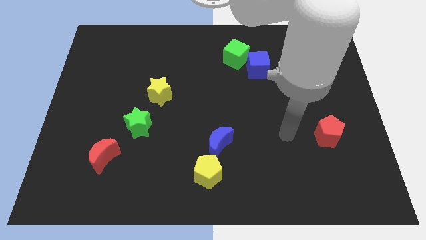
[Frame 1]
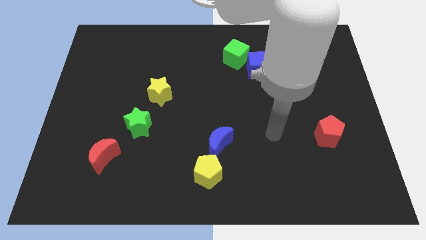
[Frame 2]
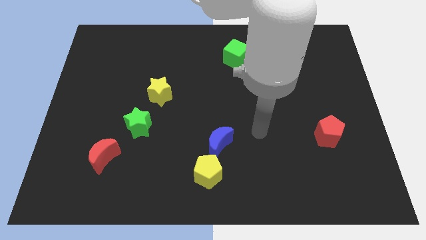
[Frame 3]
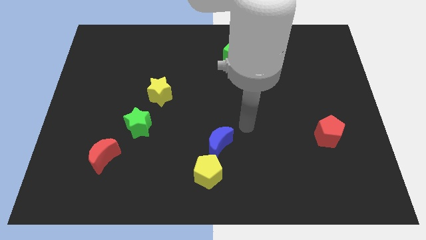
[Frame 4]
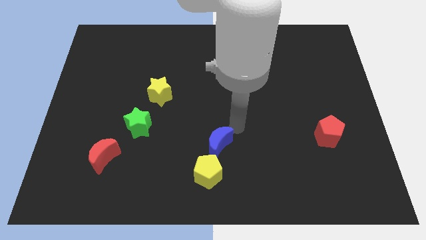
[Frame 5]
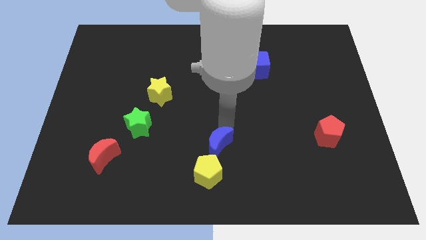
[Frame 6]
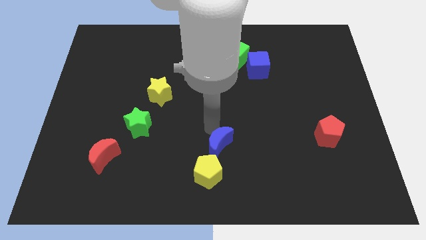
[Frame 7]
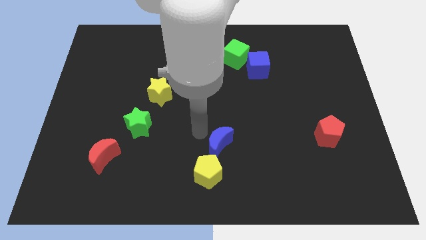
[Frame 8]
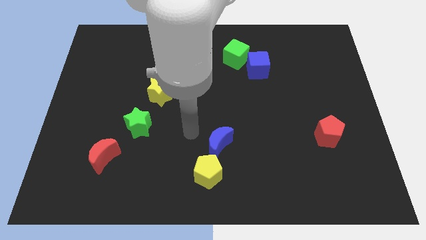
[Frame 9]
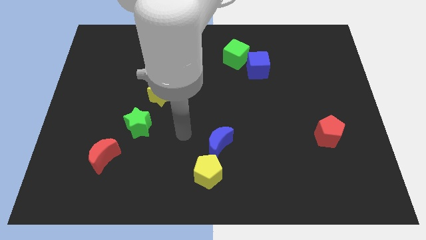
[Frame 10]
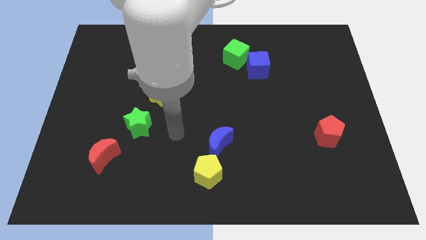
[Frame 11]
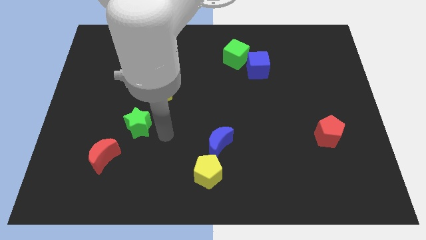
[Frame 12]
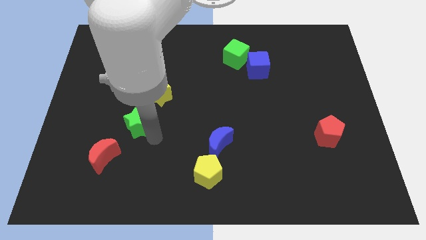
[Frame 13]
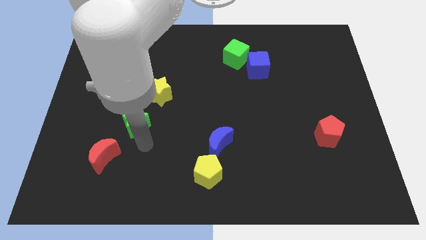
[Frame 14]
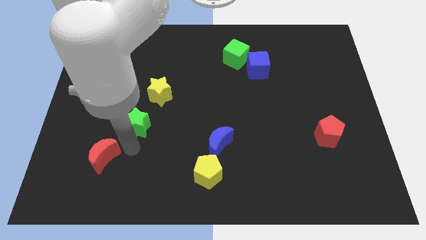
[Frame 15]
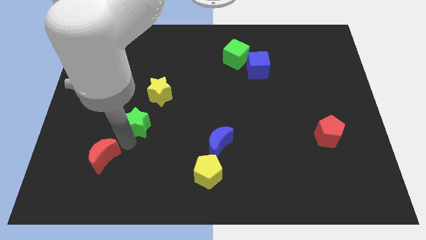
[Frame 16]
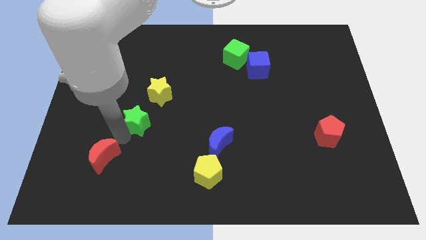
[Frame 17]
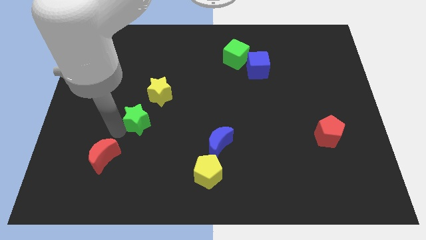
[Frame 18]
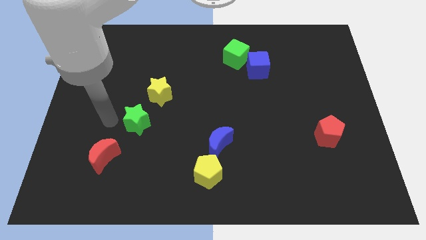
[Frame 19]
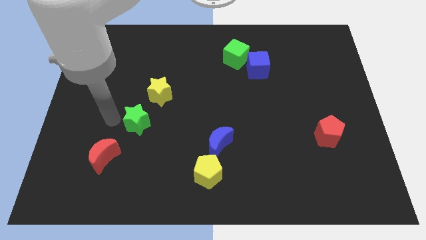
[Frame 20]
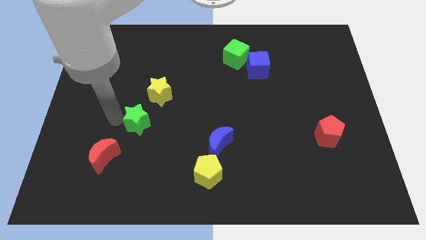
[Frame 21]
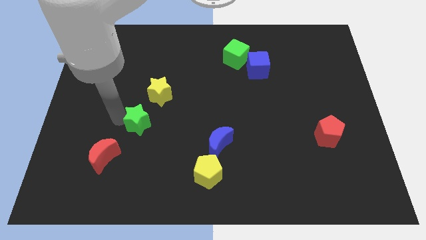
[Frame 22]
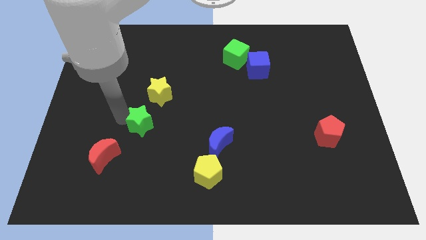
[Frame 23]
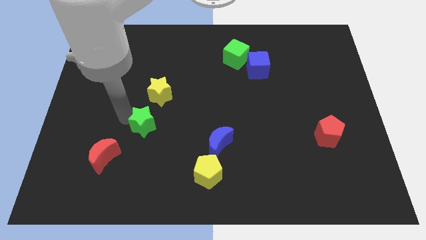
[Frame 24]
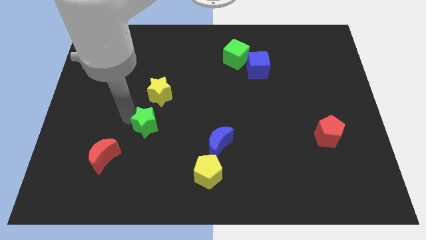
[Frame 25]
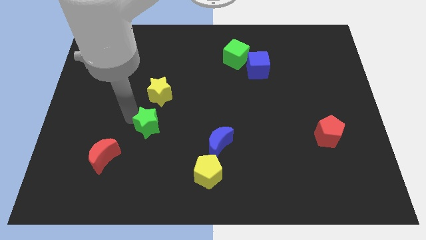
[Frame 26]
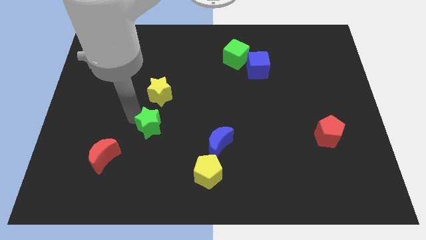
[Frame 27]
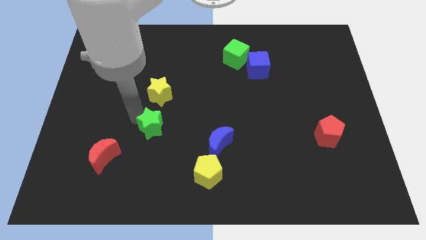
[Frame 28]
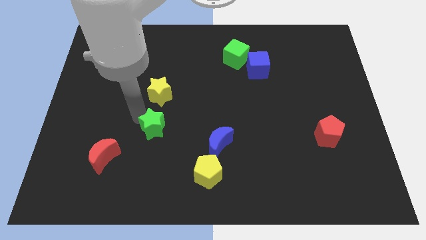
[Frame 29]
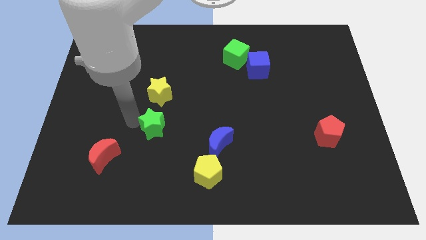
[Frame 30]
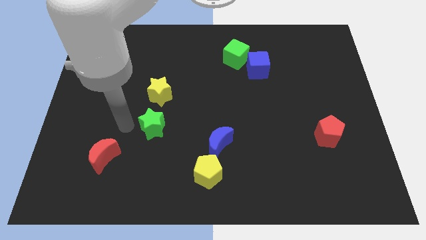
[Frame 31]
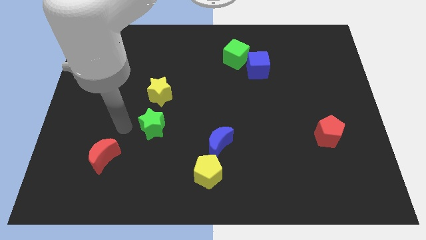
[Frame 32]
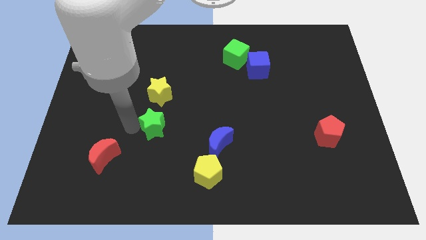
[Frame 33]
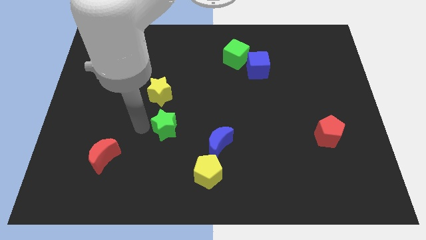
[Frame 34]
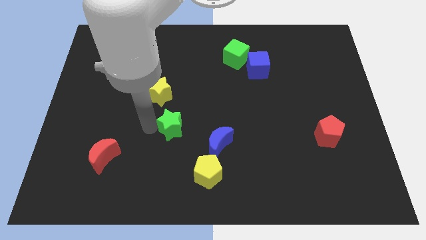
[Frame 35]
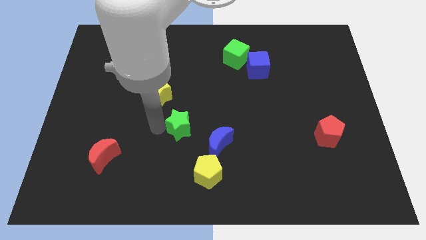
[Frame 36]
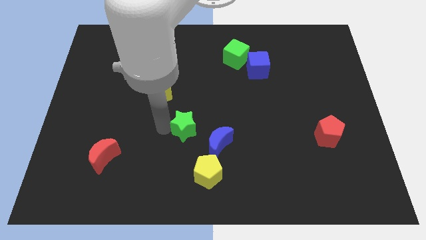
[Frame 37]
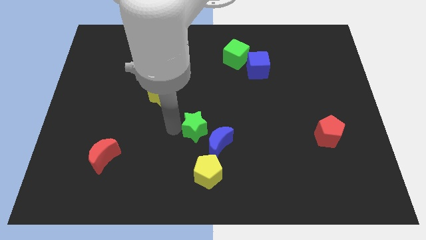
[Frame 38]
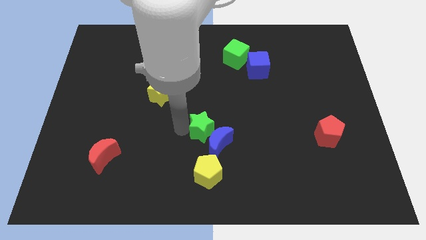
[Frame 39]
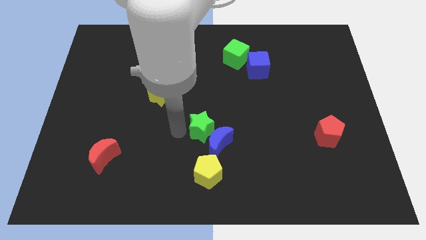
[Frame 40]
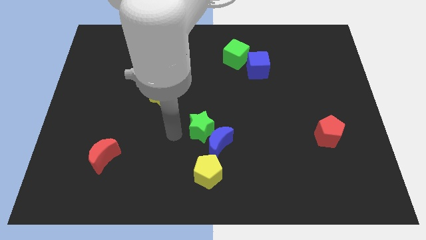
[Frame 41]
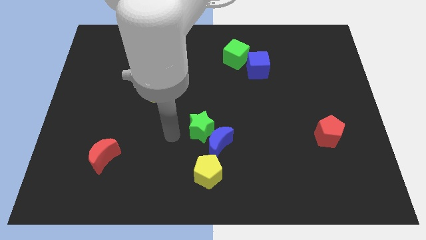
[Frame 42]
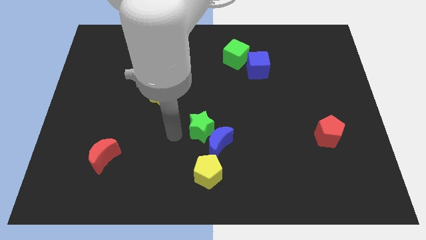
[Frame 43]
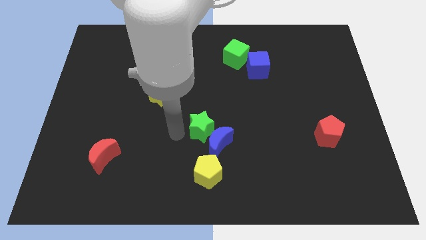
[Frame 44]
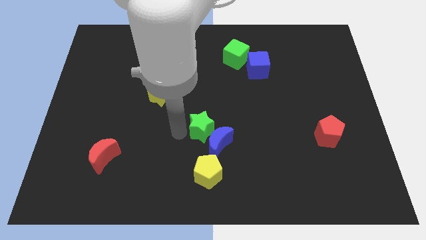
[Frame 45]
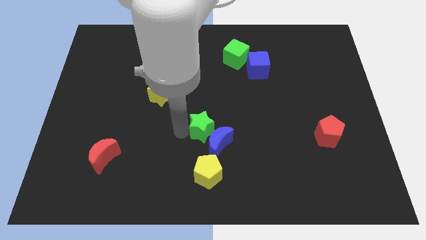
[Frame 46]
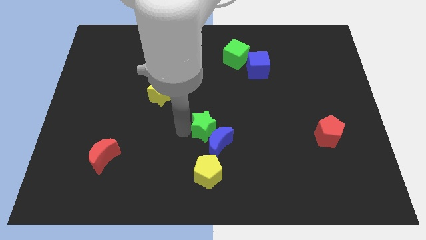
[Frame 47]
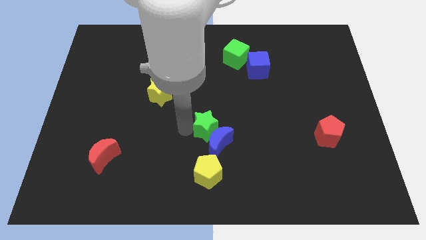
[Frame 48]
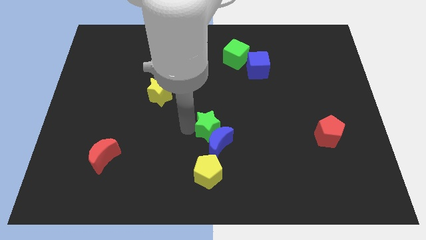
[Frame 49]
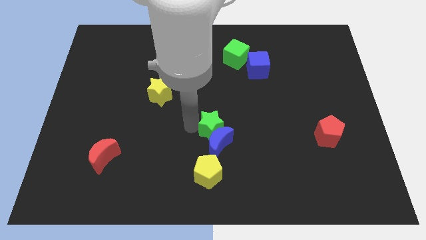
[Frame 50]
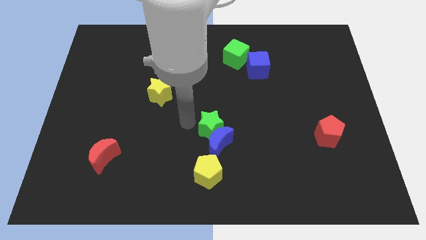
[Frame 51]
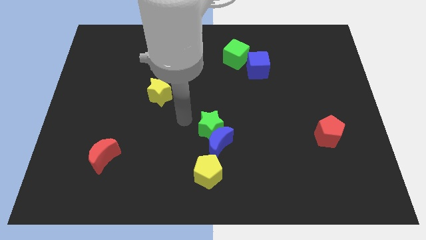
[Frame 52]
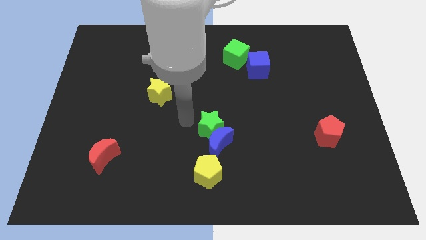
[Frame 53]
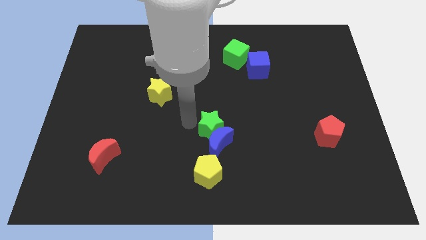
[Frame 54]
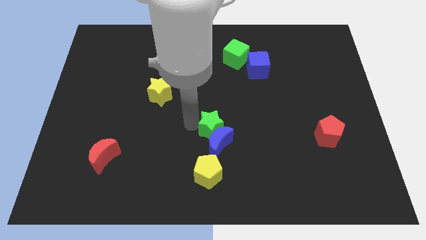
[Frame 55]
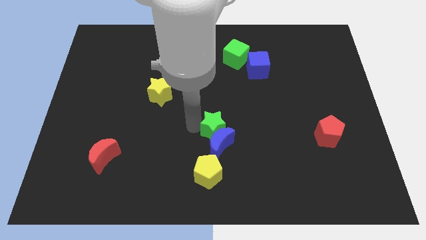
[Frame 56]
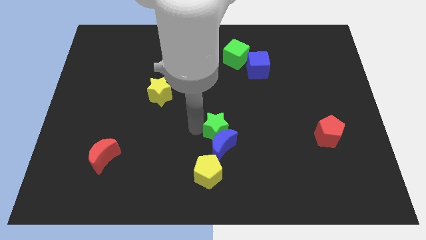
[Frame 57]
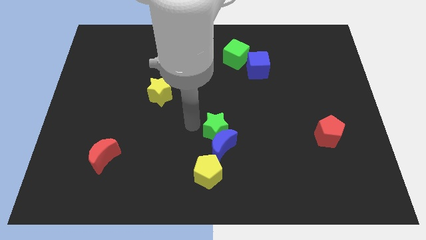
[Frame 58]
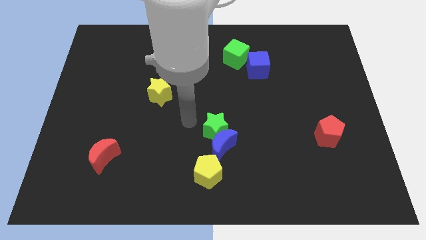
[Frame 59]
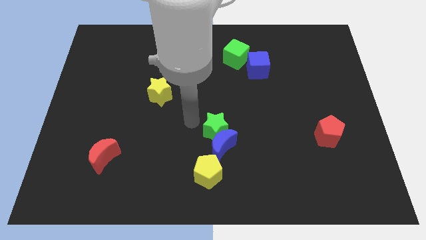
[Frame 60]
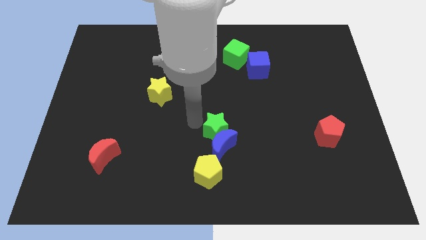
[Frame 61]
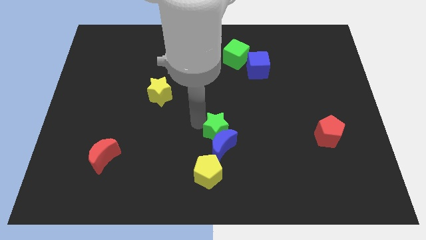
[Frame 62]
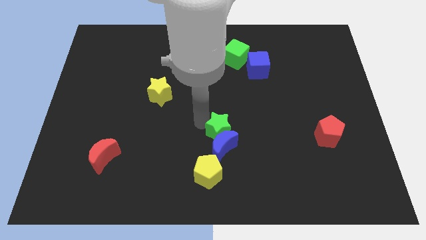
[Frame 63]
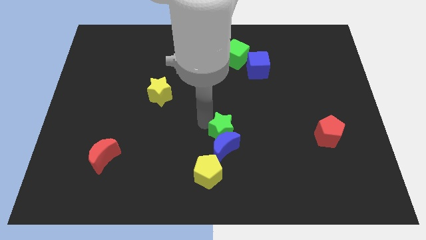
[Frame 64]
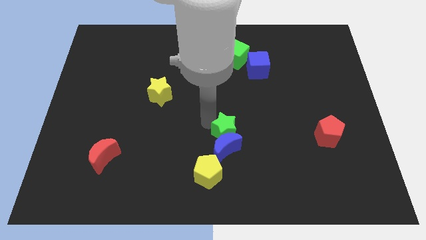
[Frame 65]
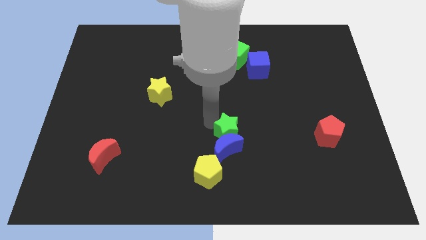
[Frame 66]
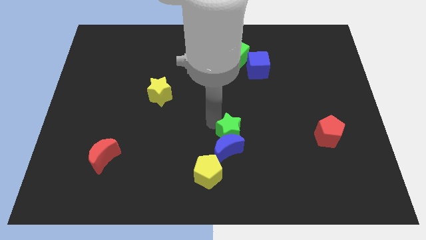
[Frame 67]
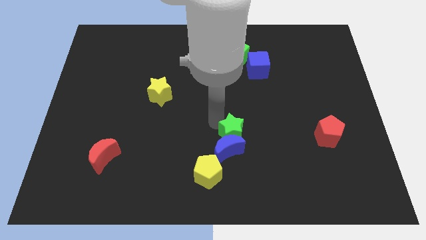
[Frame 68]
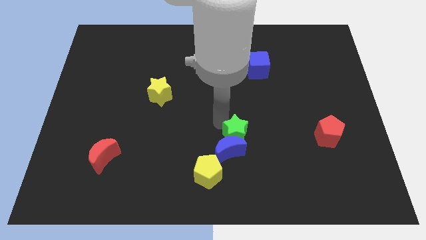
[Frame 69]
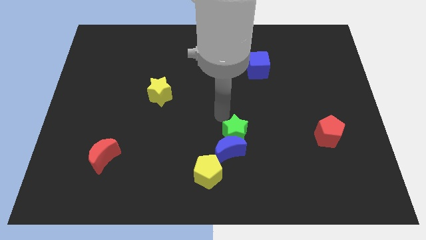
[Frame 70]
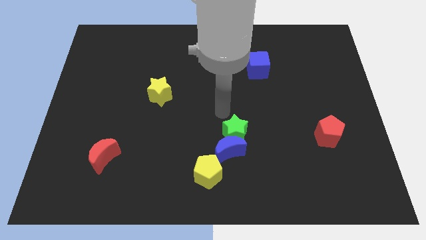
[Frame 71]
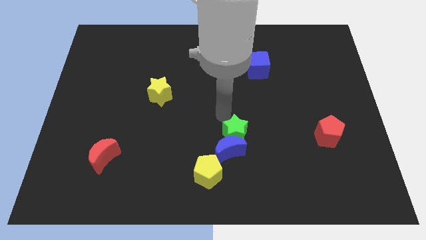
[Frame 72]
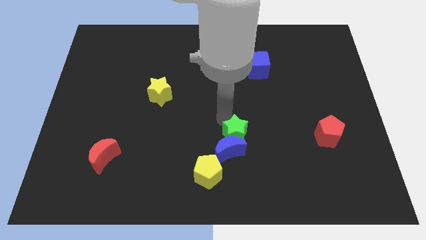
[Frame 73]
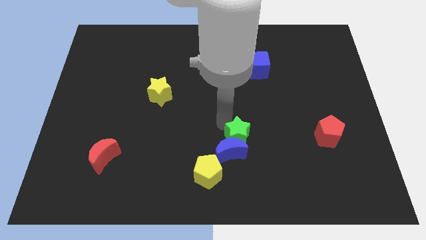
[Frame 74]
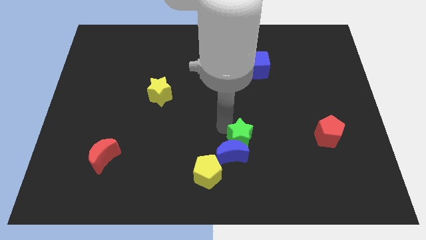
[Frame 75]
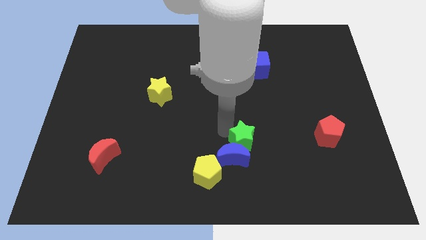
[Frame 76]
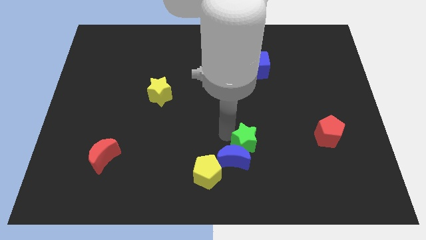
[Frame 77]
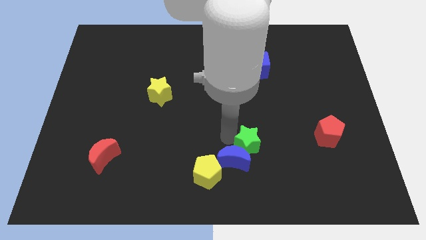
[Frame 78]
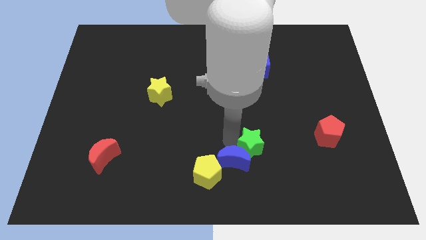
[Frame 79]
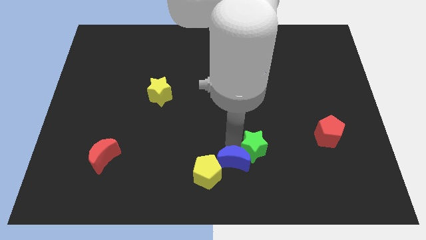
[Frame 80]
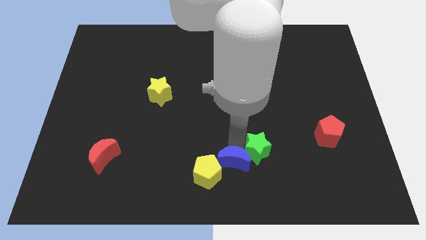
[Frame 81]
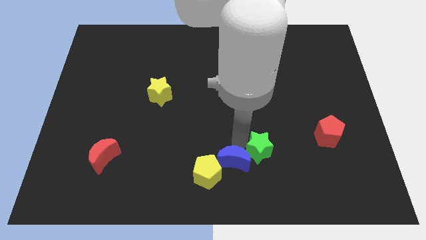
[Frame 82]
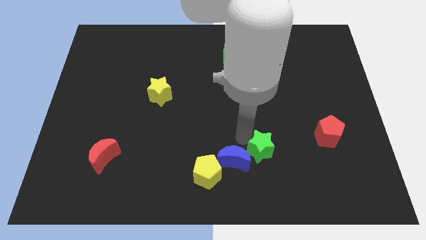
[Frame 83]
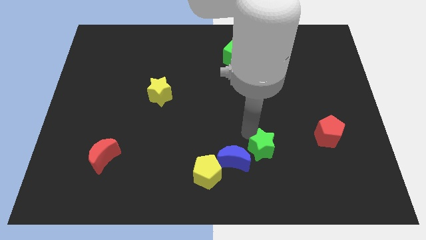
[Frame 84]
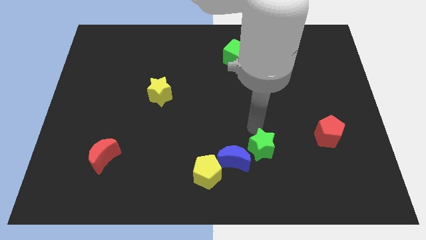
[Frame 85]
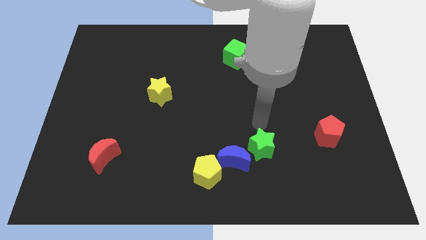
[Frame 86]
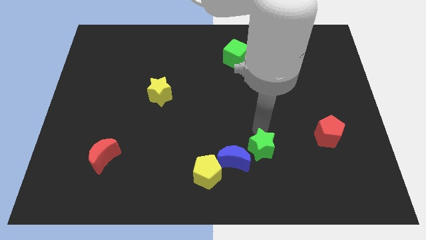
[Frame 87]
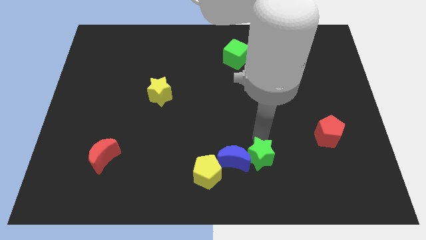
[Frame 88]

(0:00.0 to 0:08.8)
slide the green star to the bottom right side of the blue moon
